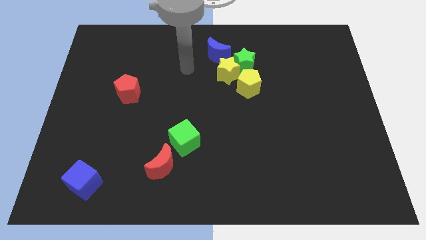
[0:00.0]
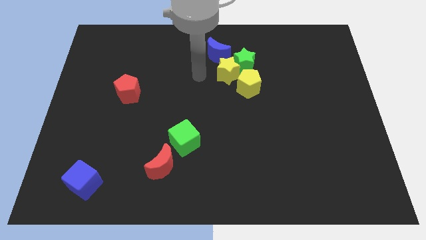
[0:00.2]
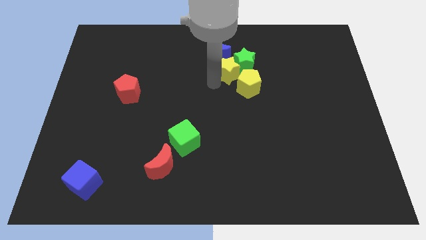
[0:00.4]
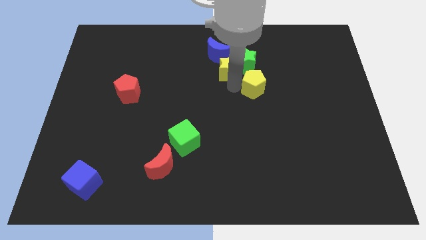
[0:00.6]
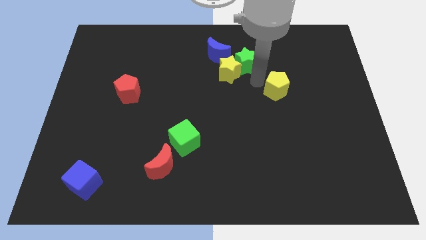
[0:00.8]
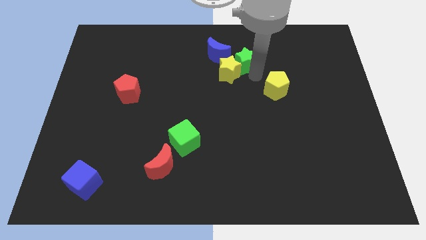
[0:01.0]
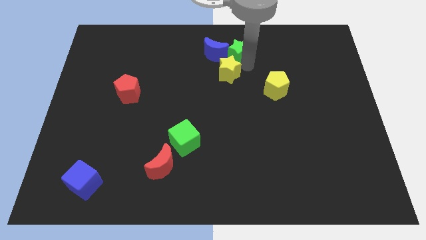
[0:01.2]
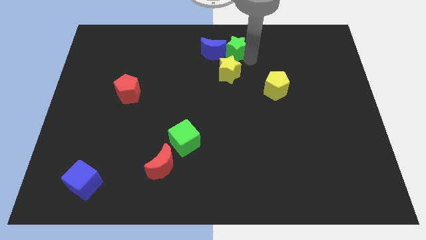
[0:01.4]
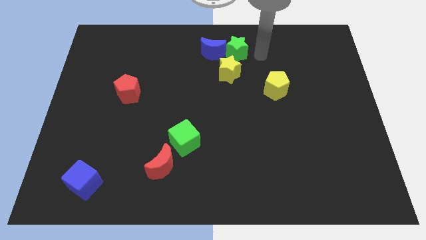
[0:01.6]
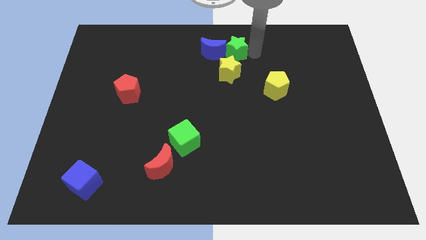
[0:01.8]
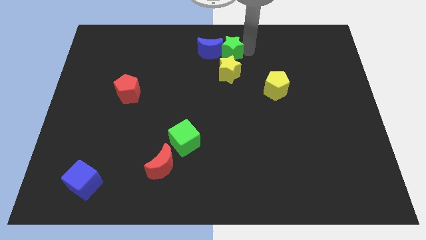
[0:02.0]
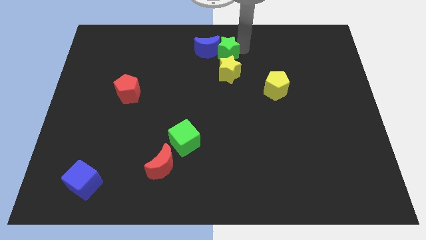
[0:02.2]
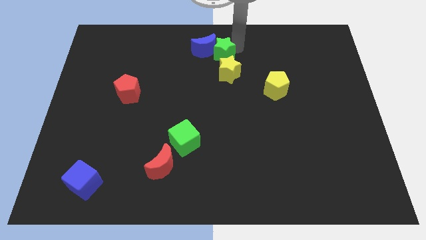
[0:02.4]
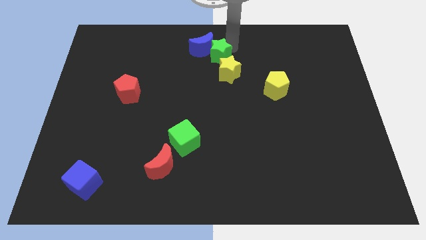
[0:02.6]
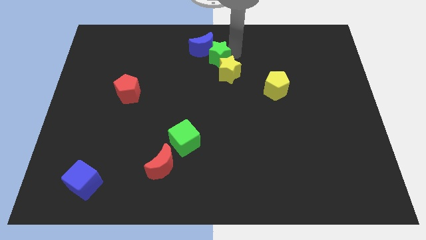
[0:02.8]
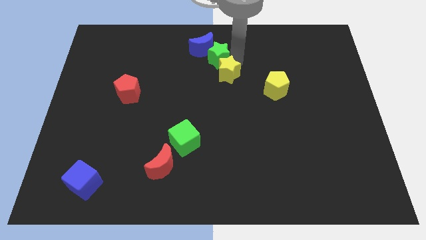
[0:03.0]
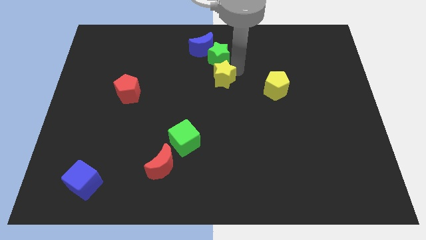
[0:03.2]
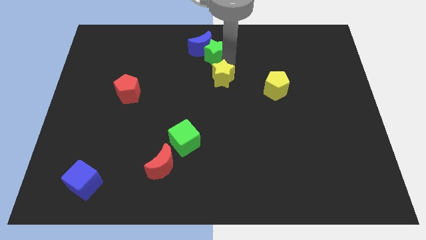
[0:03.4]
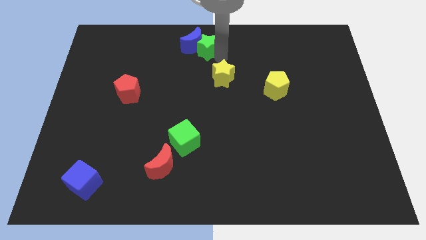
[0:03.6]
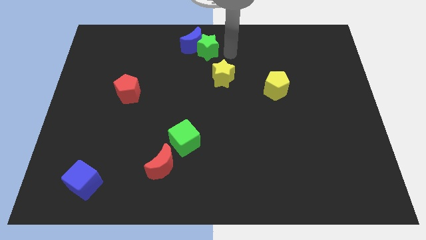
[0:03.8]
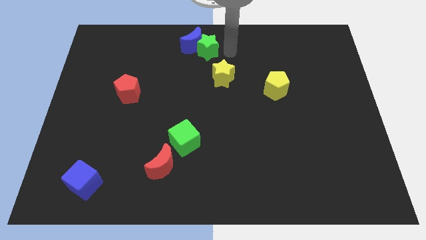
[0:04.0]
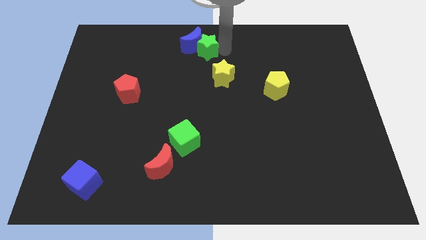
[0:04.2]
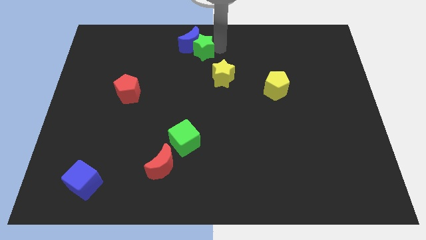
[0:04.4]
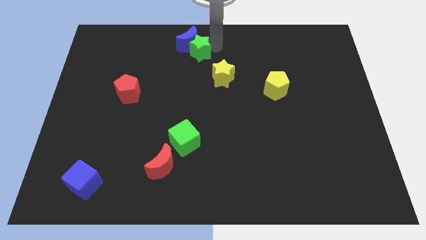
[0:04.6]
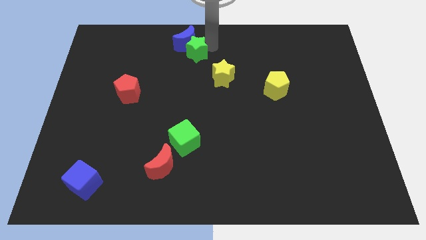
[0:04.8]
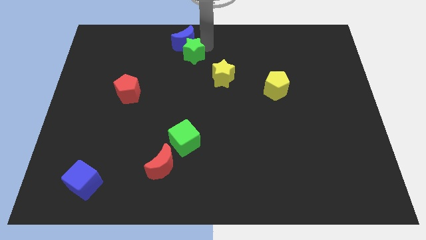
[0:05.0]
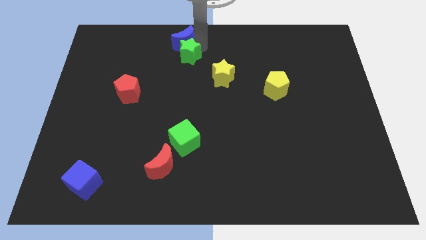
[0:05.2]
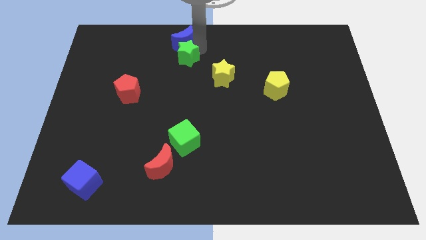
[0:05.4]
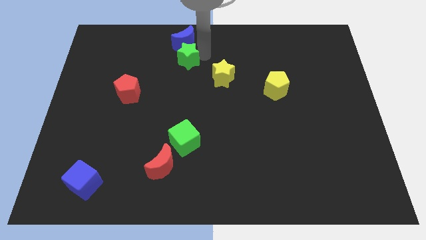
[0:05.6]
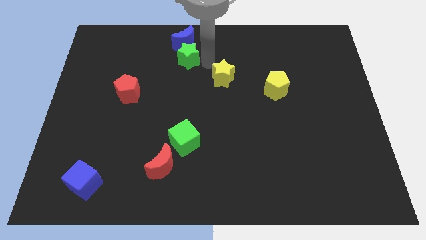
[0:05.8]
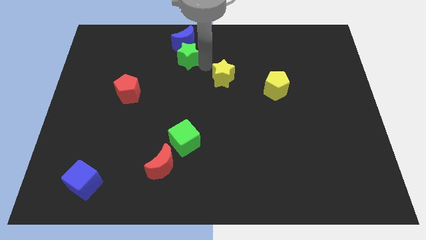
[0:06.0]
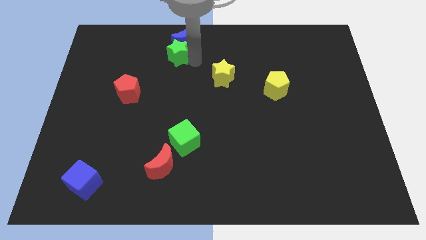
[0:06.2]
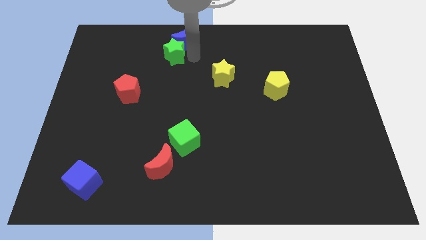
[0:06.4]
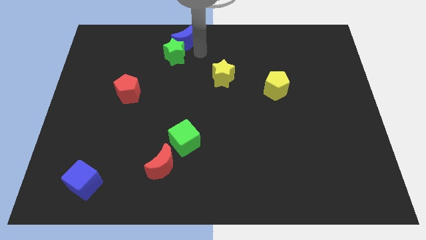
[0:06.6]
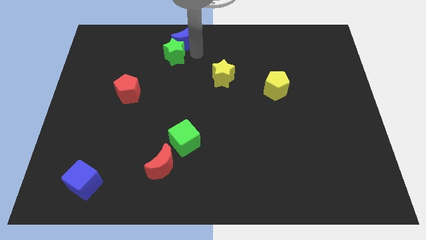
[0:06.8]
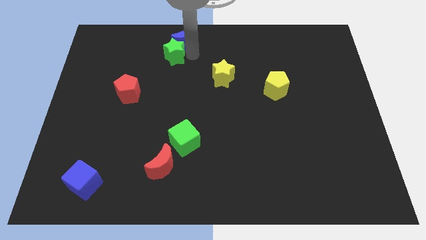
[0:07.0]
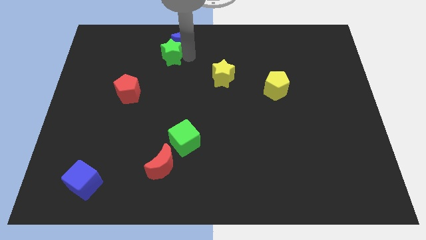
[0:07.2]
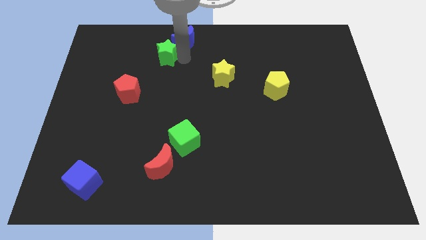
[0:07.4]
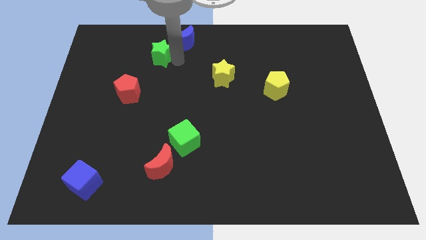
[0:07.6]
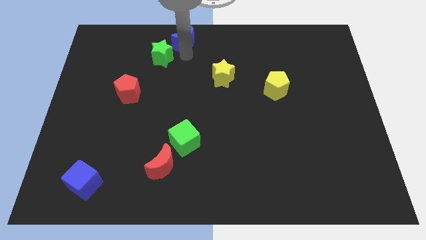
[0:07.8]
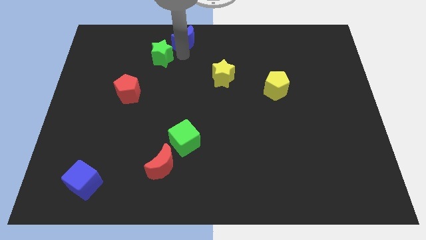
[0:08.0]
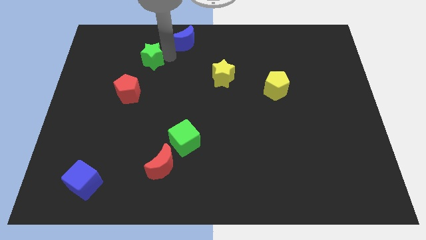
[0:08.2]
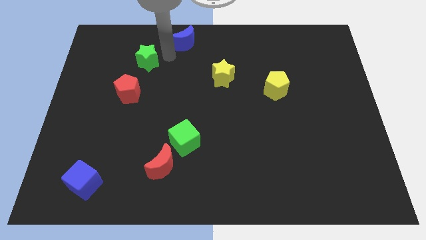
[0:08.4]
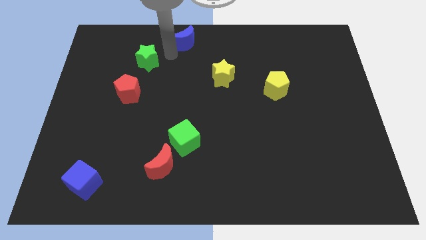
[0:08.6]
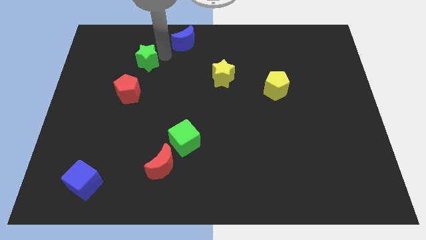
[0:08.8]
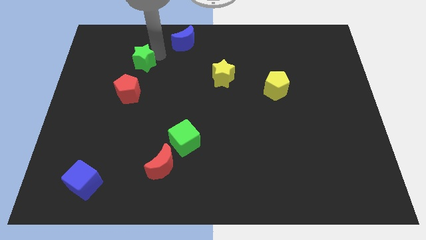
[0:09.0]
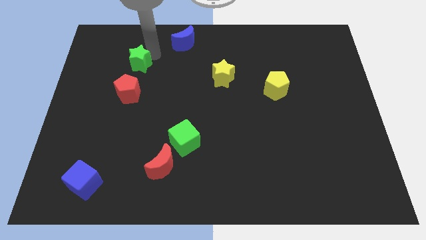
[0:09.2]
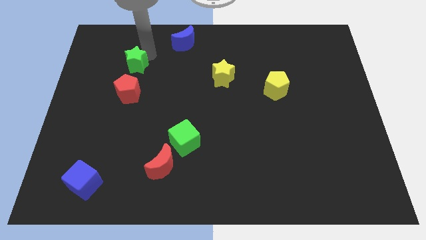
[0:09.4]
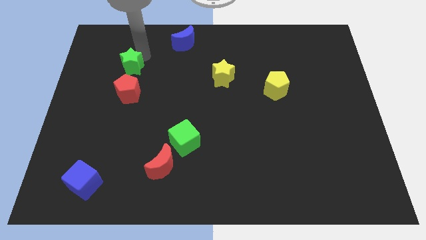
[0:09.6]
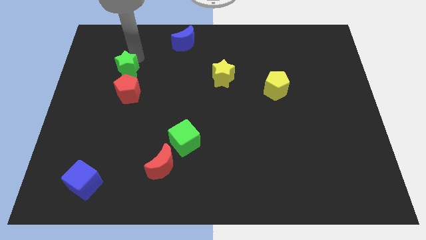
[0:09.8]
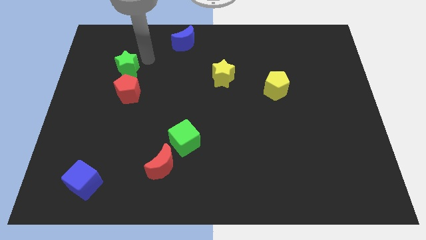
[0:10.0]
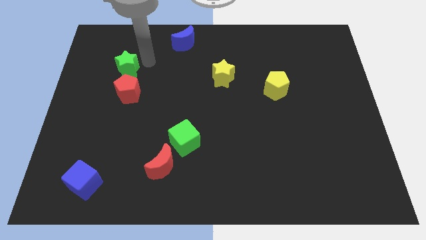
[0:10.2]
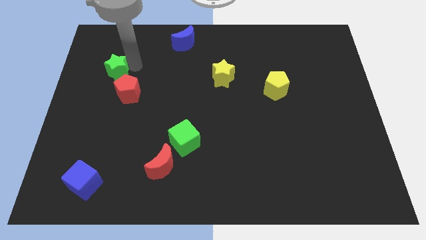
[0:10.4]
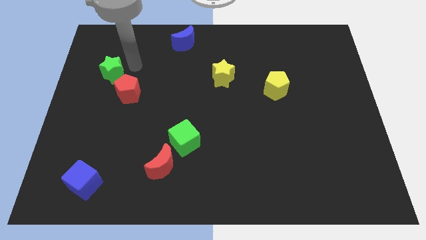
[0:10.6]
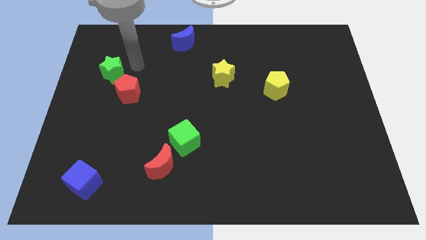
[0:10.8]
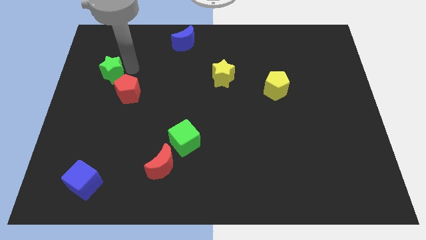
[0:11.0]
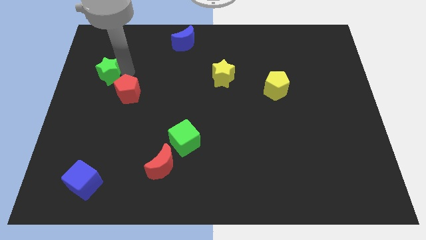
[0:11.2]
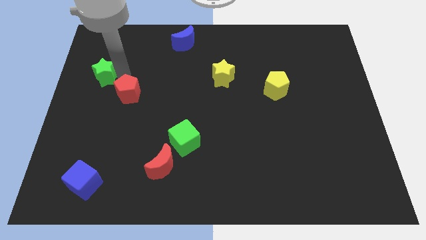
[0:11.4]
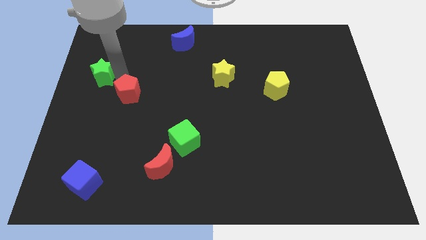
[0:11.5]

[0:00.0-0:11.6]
put the green star to the left side
